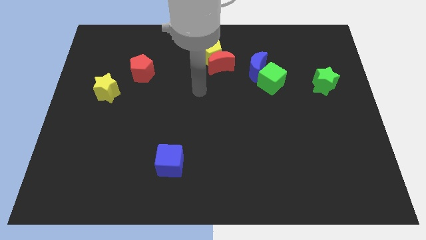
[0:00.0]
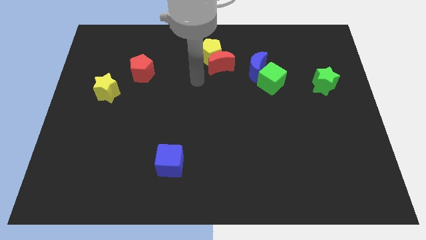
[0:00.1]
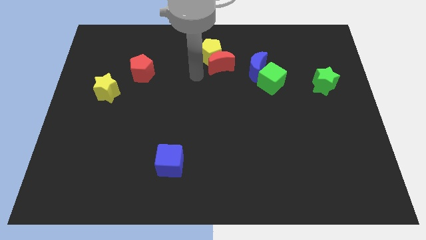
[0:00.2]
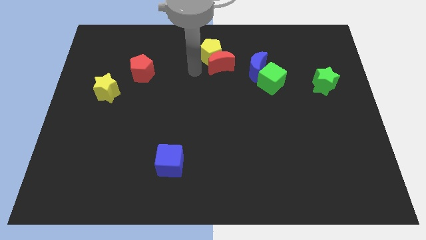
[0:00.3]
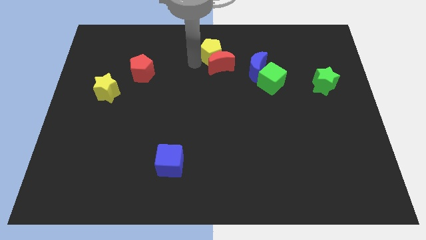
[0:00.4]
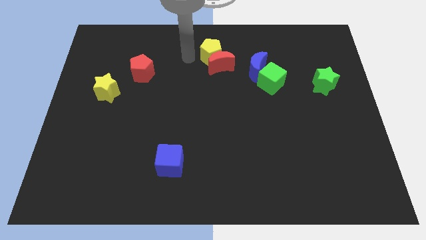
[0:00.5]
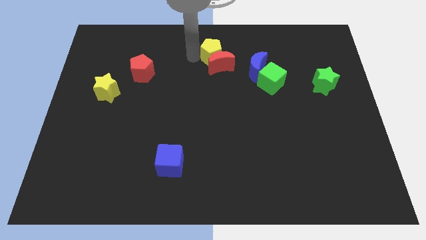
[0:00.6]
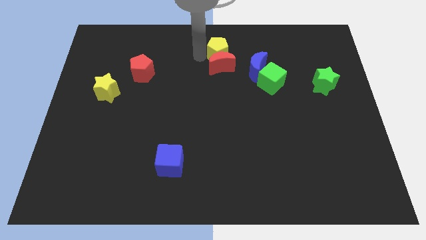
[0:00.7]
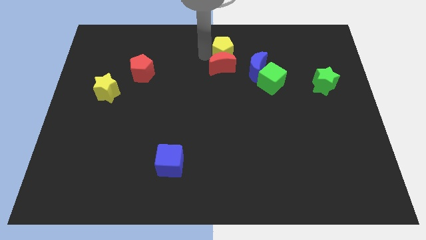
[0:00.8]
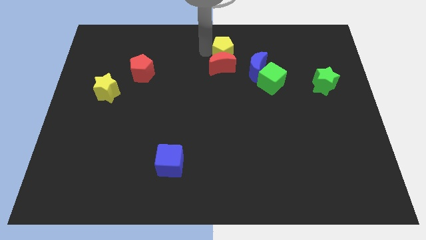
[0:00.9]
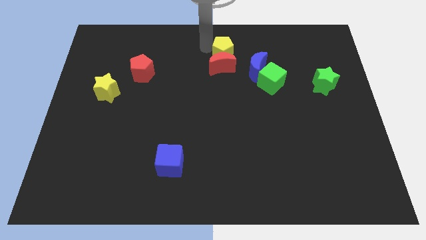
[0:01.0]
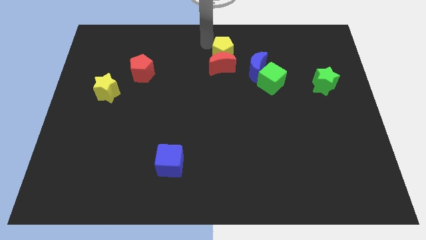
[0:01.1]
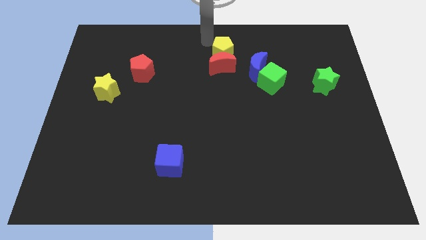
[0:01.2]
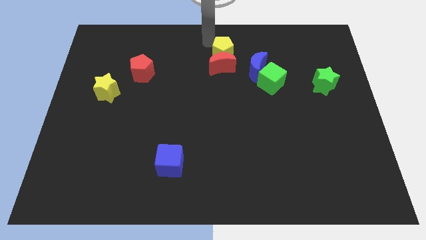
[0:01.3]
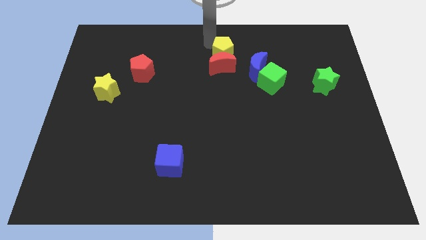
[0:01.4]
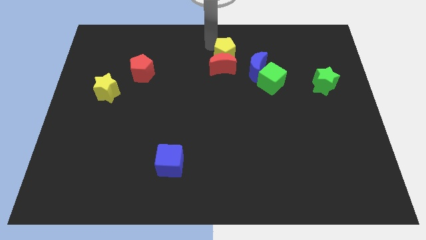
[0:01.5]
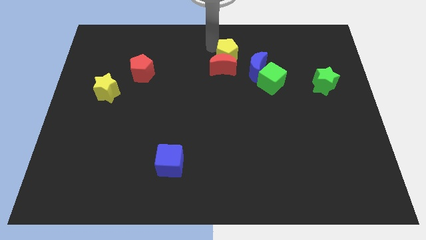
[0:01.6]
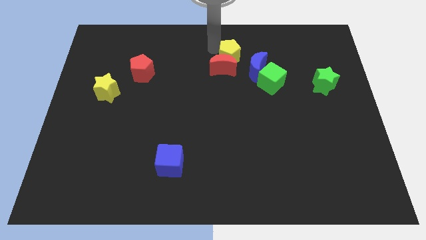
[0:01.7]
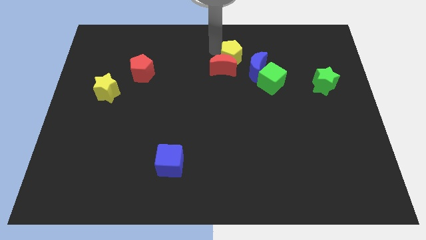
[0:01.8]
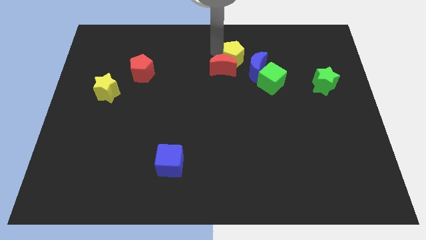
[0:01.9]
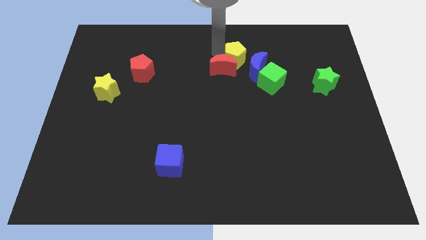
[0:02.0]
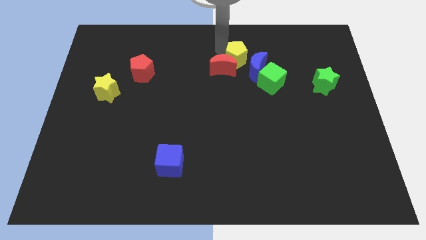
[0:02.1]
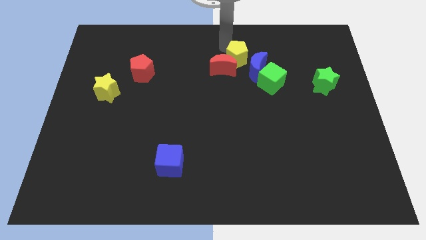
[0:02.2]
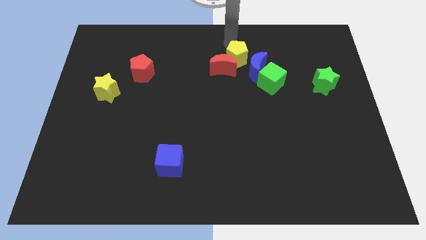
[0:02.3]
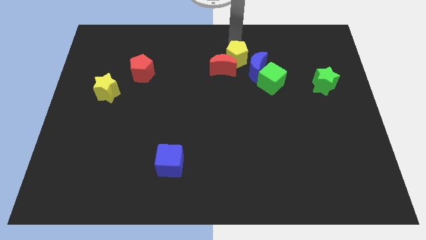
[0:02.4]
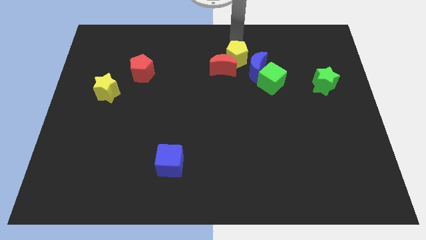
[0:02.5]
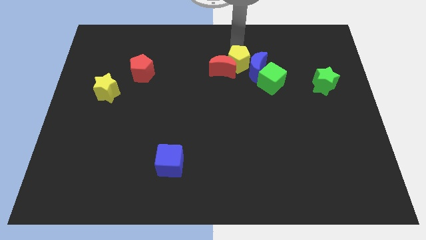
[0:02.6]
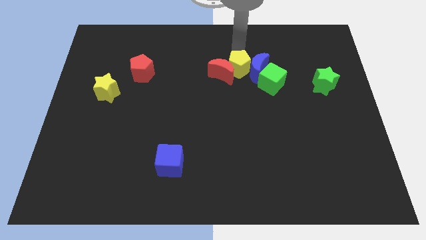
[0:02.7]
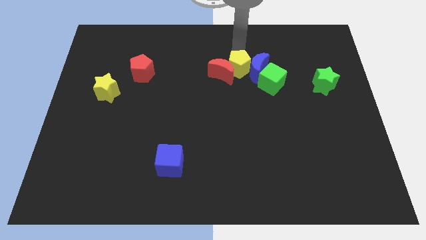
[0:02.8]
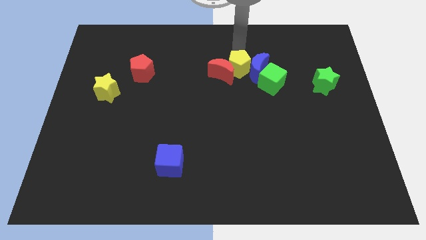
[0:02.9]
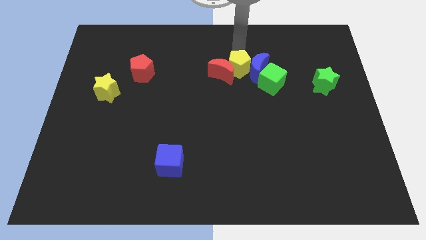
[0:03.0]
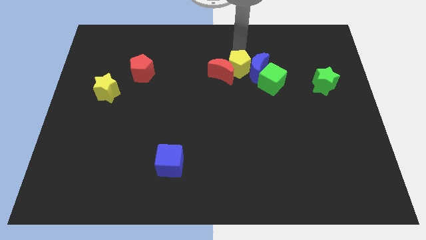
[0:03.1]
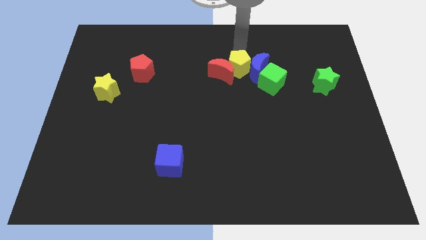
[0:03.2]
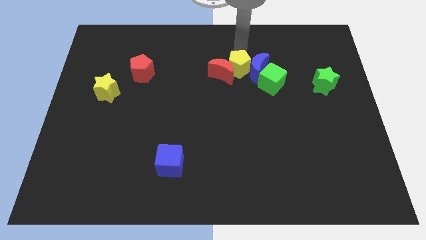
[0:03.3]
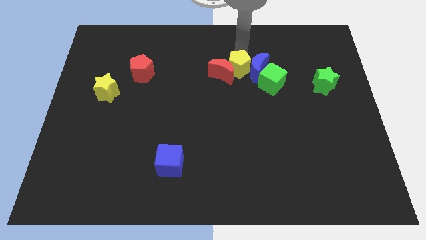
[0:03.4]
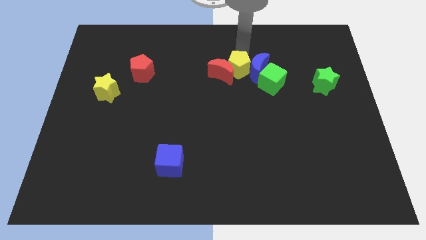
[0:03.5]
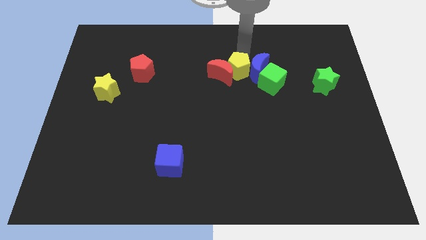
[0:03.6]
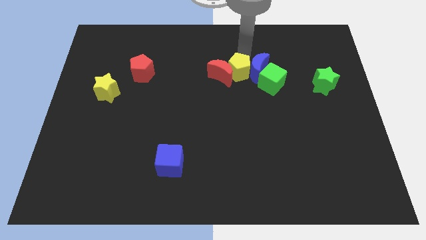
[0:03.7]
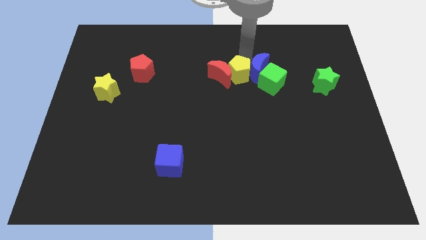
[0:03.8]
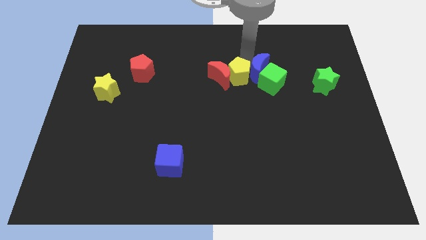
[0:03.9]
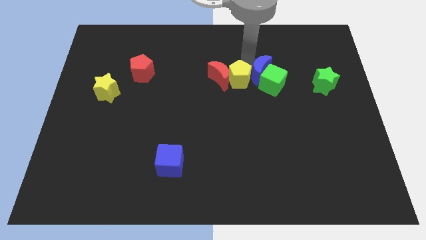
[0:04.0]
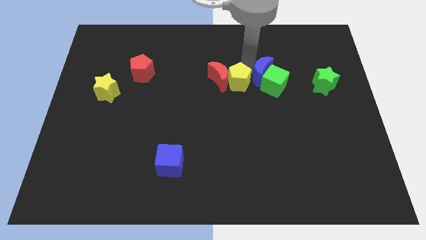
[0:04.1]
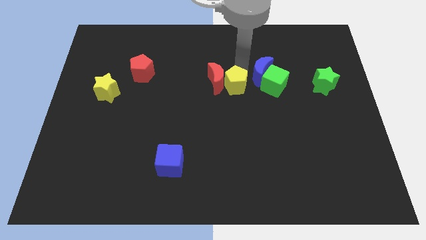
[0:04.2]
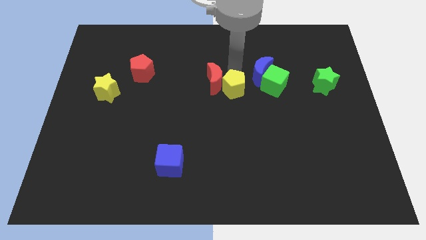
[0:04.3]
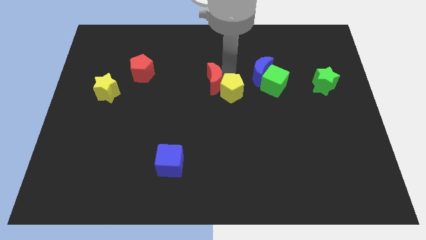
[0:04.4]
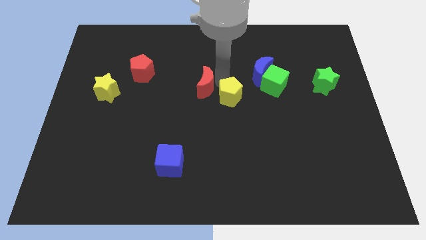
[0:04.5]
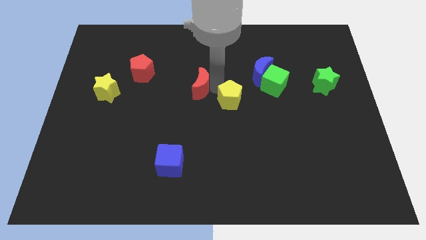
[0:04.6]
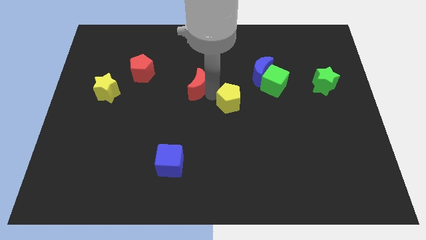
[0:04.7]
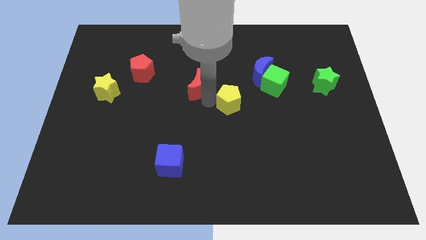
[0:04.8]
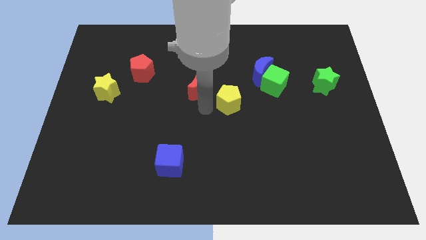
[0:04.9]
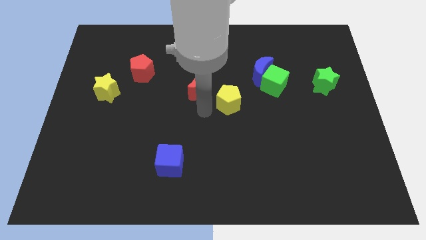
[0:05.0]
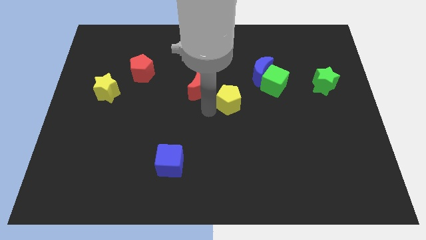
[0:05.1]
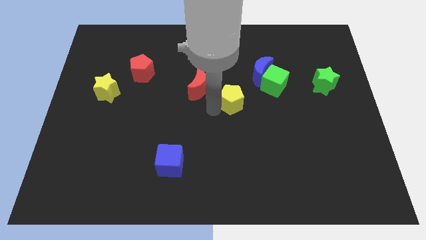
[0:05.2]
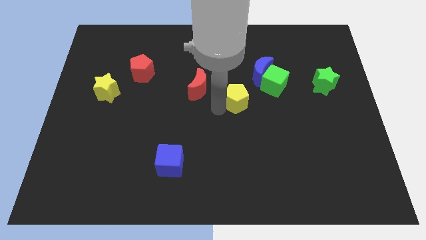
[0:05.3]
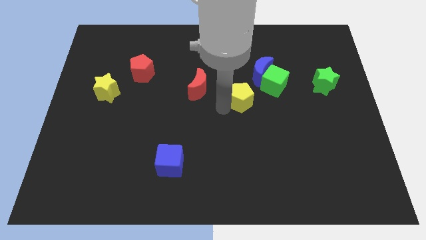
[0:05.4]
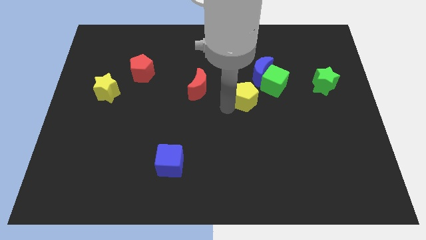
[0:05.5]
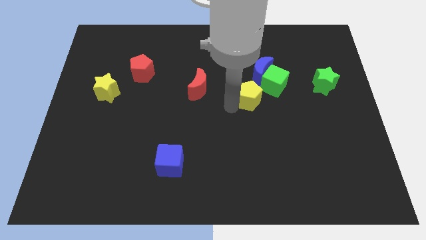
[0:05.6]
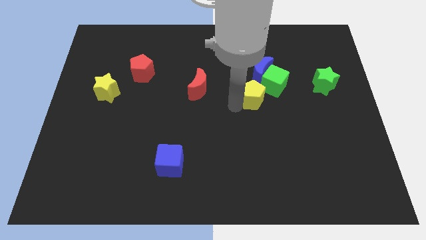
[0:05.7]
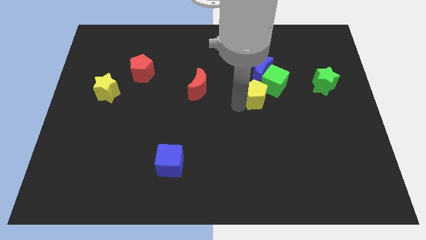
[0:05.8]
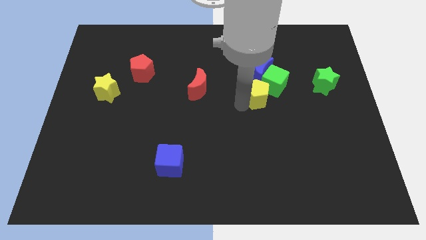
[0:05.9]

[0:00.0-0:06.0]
push the yellow pentagon close to the green cube

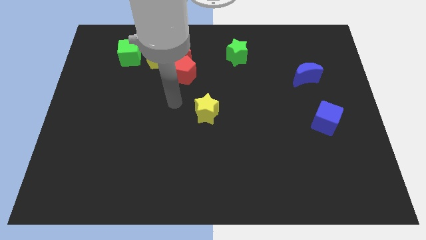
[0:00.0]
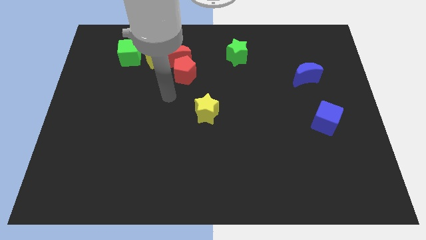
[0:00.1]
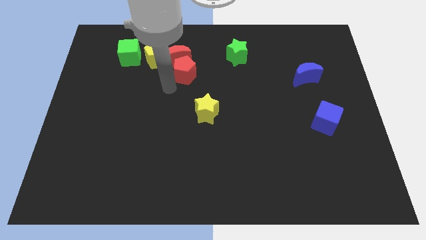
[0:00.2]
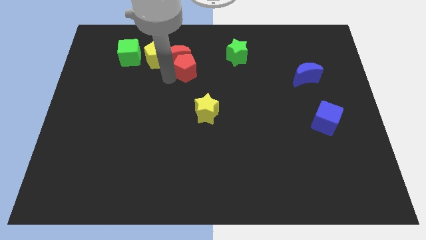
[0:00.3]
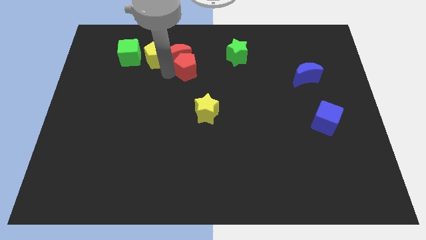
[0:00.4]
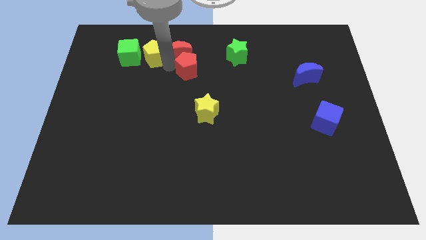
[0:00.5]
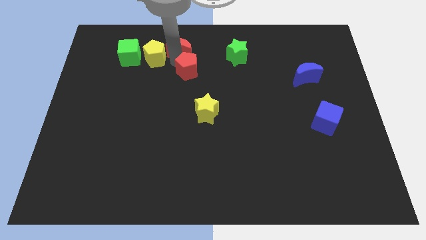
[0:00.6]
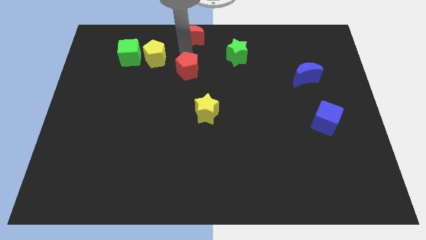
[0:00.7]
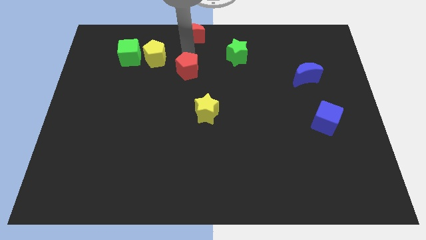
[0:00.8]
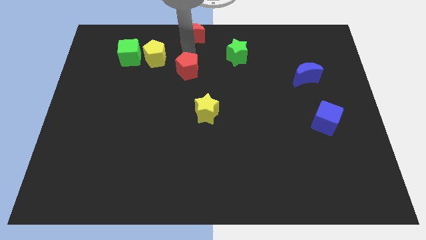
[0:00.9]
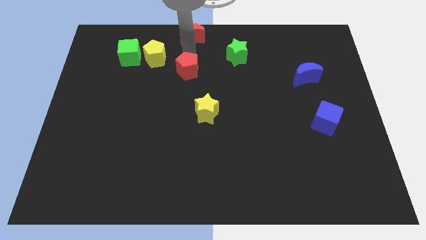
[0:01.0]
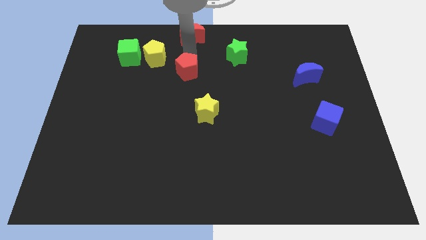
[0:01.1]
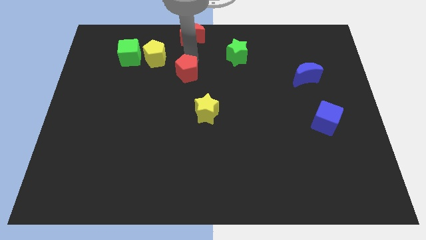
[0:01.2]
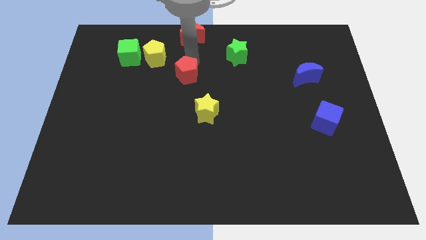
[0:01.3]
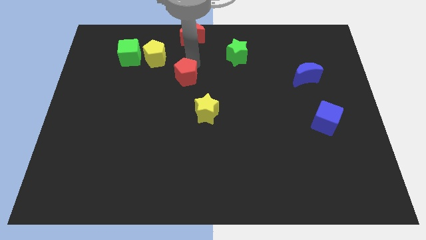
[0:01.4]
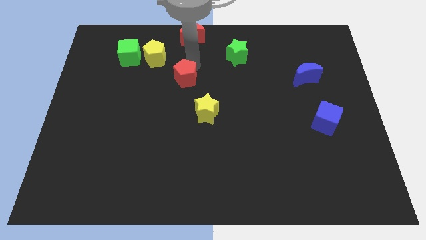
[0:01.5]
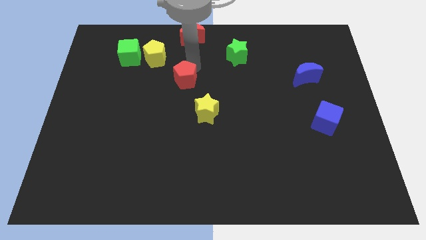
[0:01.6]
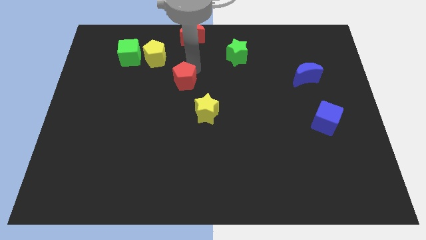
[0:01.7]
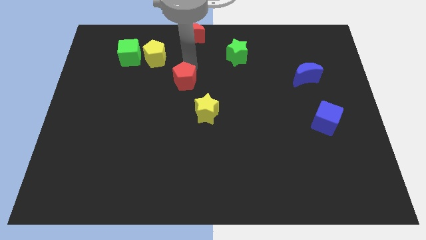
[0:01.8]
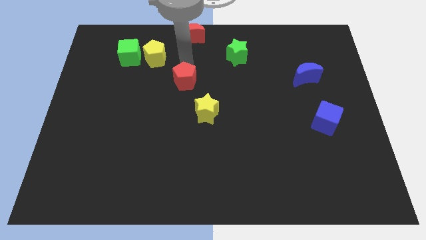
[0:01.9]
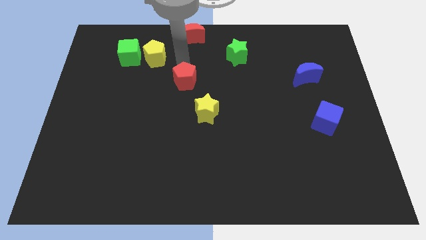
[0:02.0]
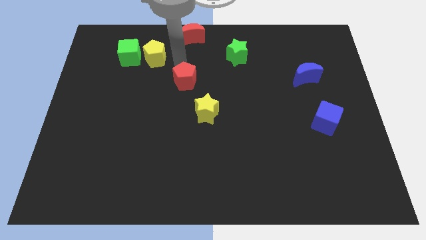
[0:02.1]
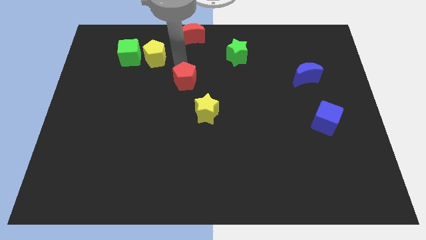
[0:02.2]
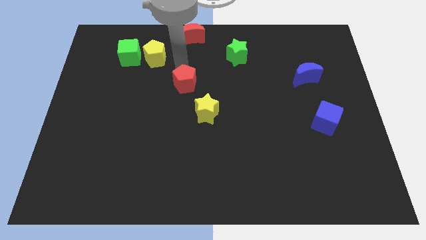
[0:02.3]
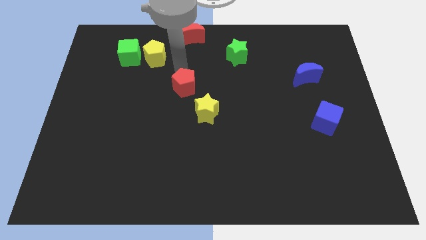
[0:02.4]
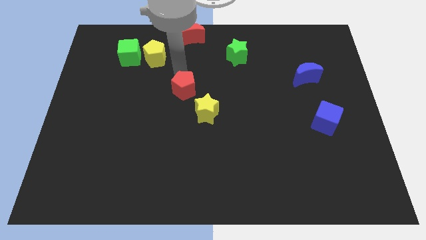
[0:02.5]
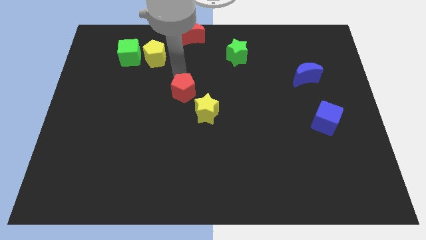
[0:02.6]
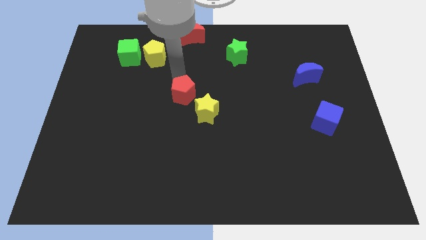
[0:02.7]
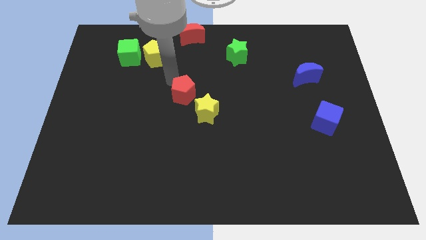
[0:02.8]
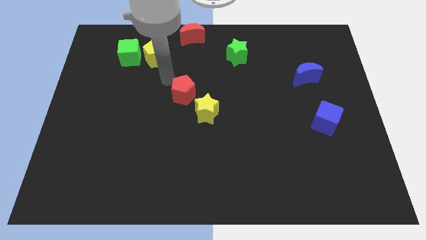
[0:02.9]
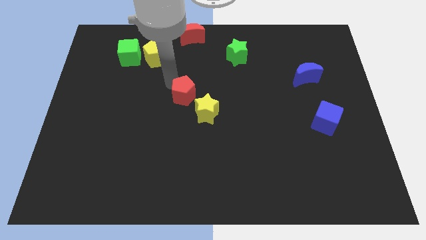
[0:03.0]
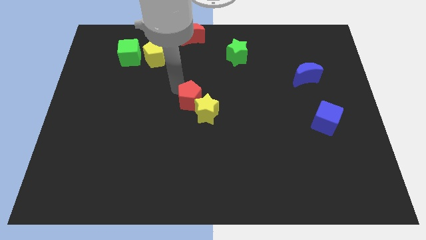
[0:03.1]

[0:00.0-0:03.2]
put the red pentagon close to the yellow star
